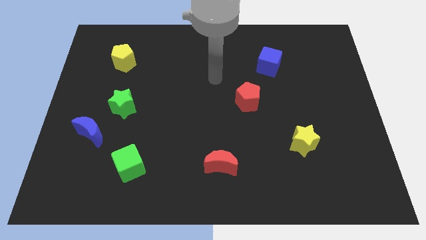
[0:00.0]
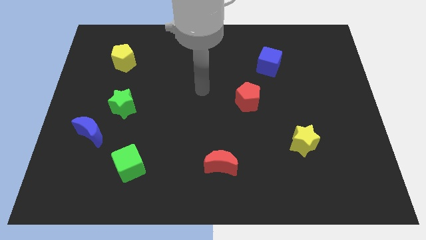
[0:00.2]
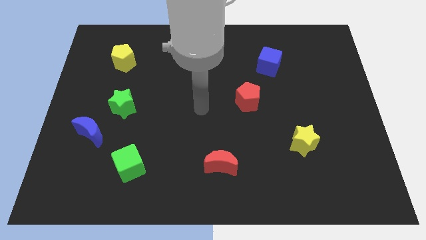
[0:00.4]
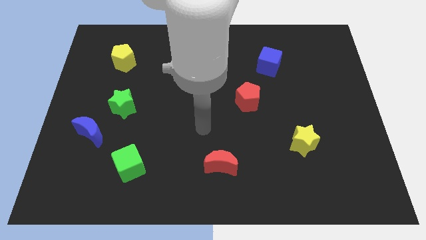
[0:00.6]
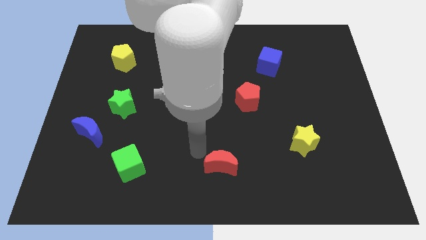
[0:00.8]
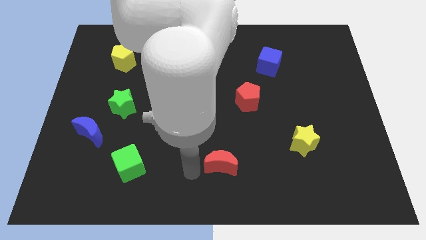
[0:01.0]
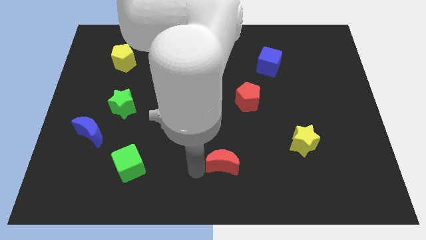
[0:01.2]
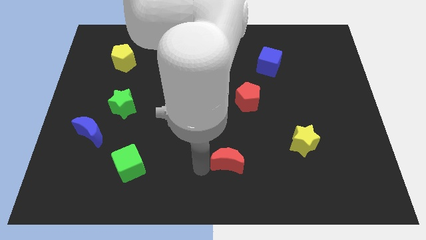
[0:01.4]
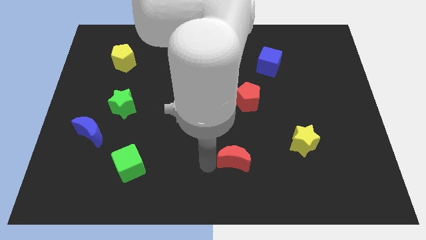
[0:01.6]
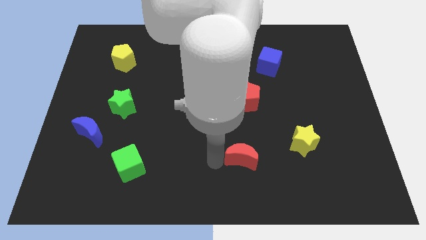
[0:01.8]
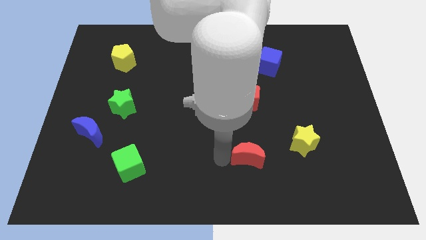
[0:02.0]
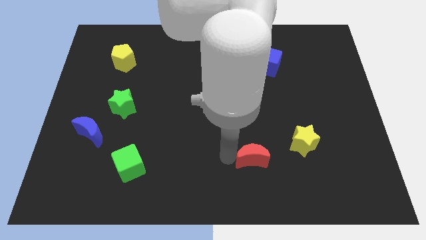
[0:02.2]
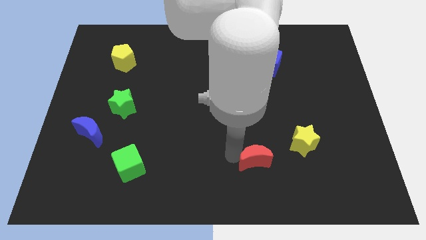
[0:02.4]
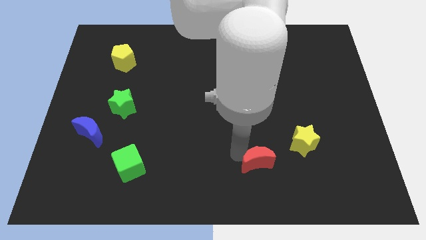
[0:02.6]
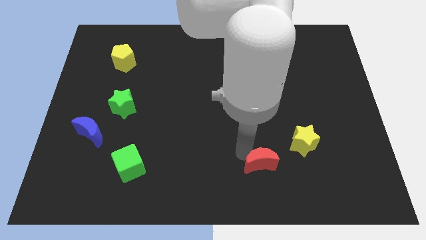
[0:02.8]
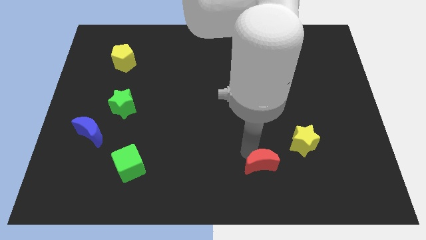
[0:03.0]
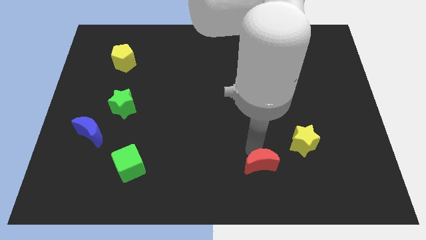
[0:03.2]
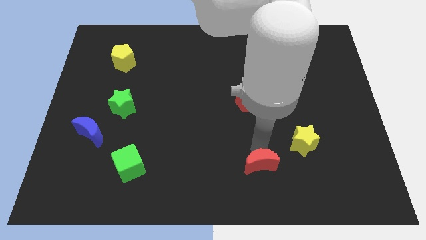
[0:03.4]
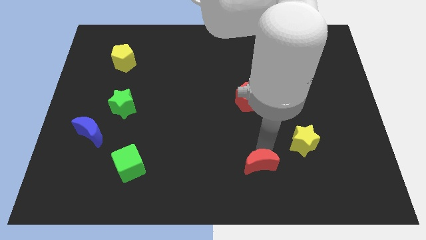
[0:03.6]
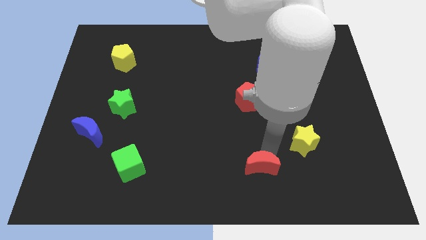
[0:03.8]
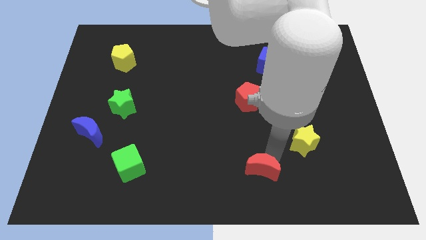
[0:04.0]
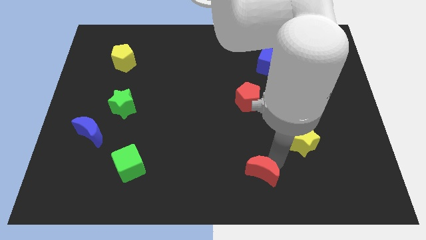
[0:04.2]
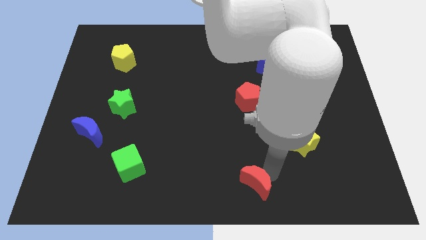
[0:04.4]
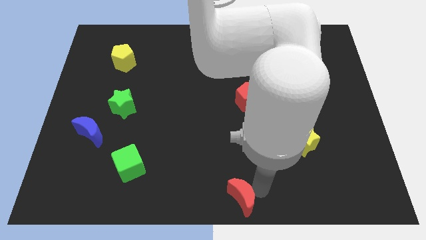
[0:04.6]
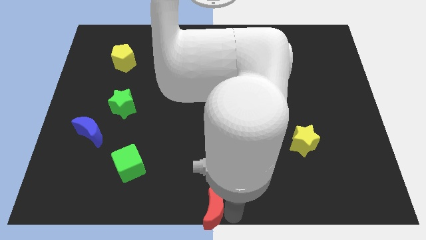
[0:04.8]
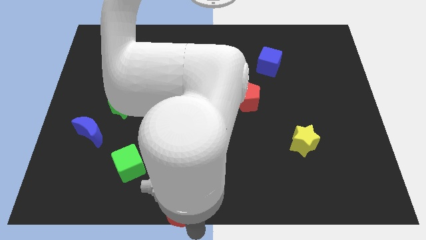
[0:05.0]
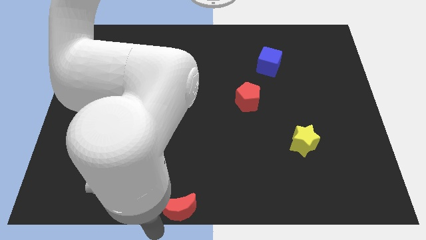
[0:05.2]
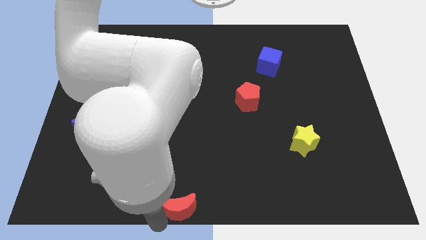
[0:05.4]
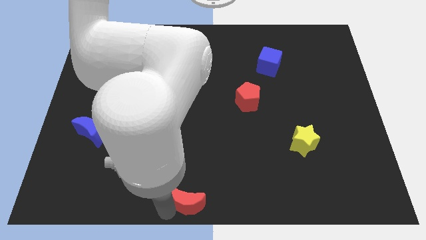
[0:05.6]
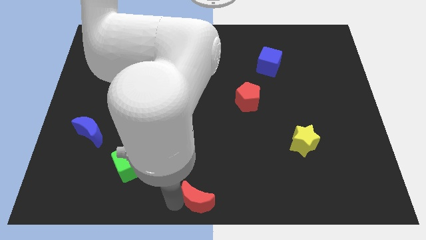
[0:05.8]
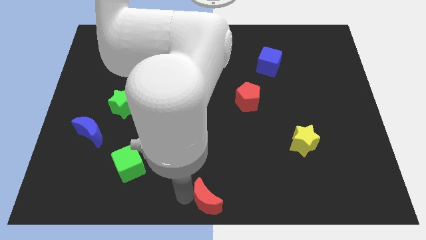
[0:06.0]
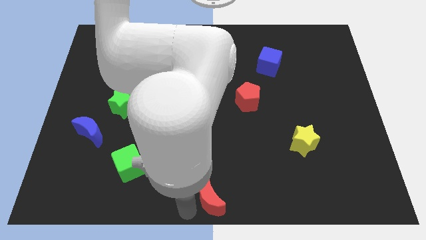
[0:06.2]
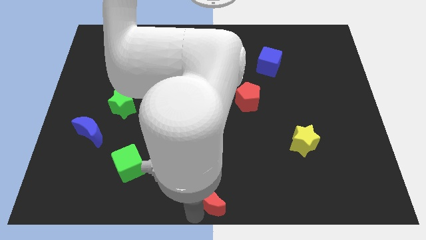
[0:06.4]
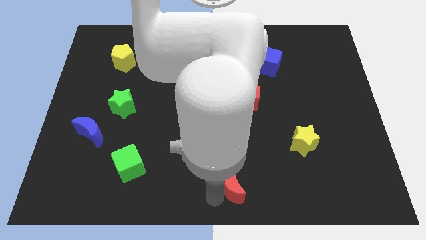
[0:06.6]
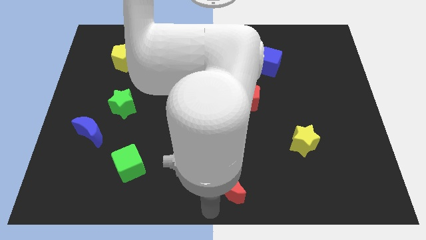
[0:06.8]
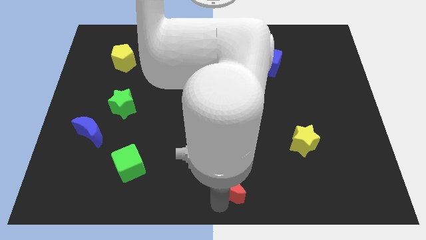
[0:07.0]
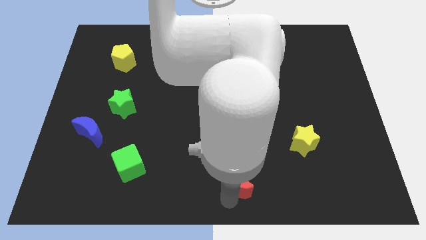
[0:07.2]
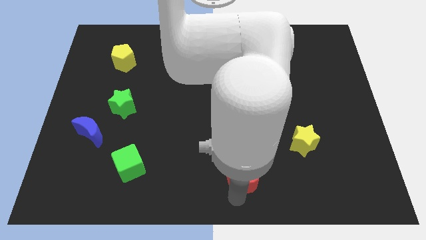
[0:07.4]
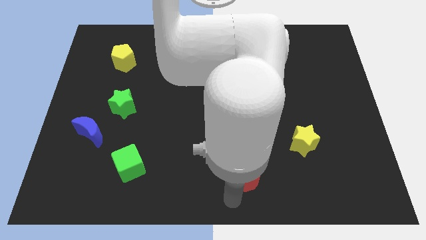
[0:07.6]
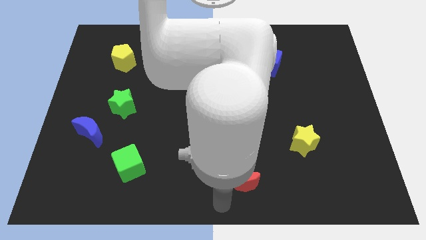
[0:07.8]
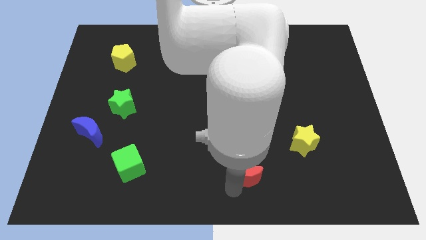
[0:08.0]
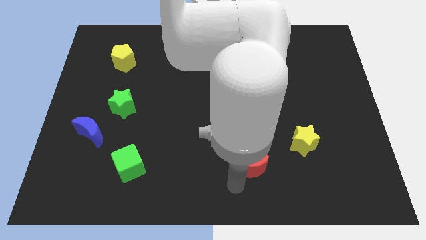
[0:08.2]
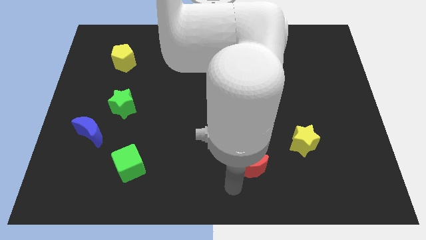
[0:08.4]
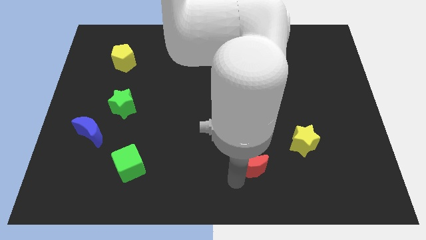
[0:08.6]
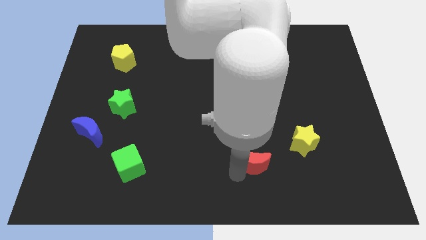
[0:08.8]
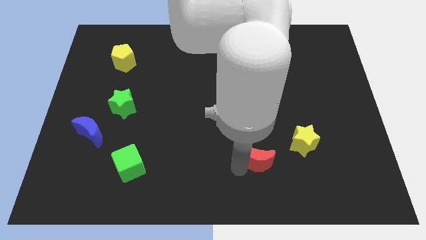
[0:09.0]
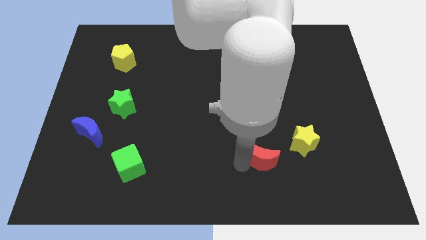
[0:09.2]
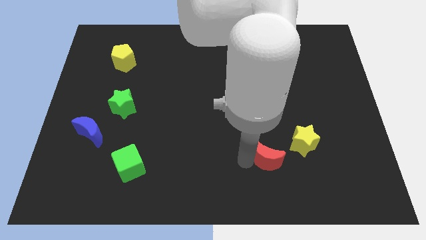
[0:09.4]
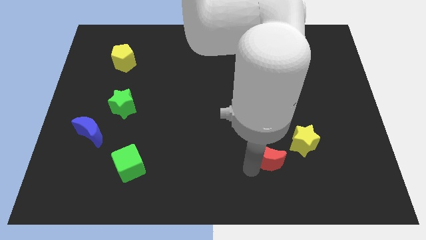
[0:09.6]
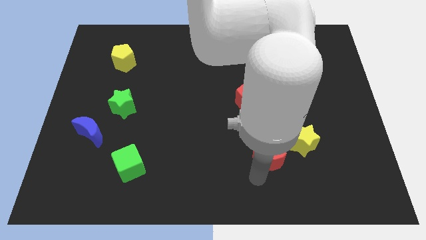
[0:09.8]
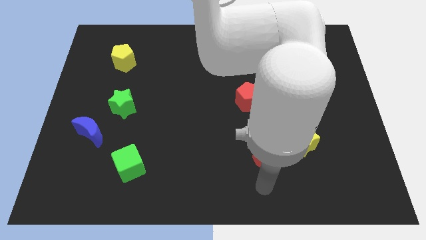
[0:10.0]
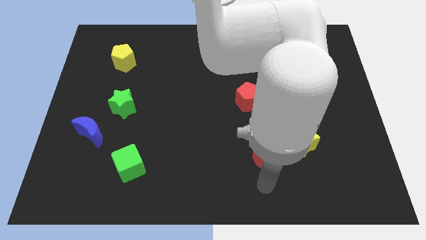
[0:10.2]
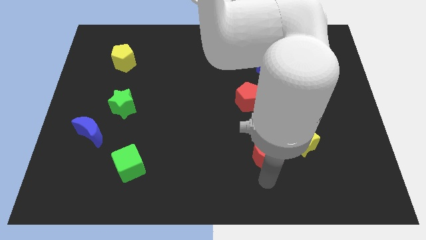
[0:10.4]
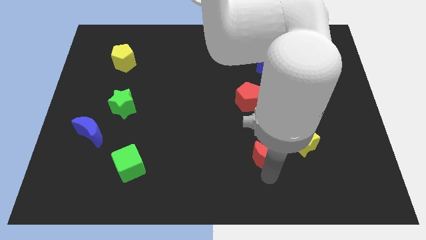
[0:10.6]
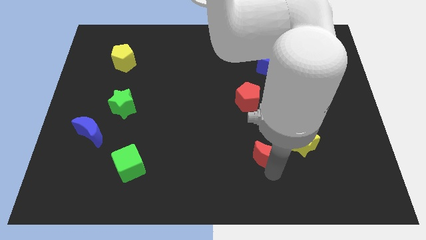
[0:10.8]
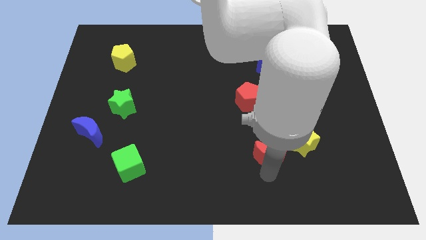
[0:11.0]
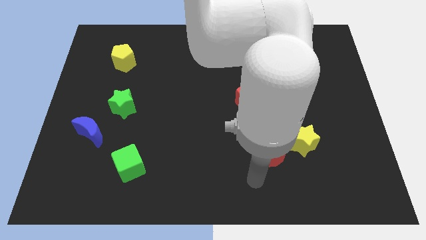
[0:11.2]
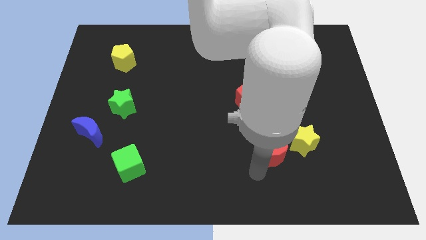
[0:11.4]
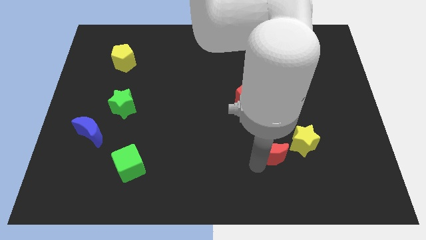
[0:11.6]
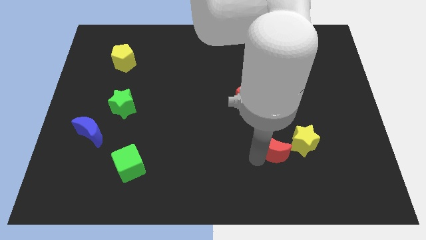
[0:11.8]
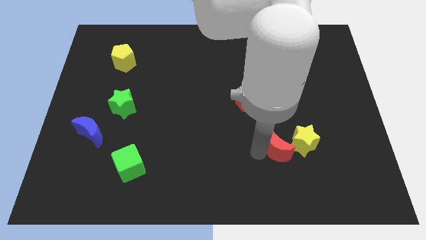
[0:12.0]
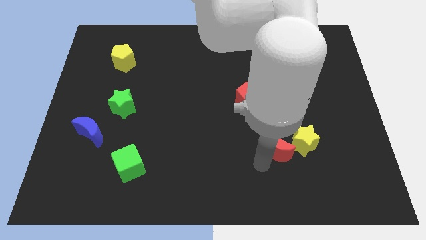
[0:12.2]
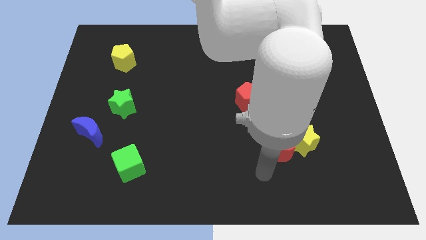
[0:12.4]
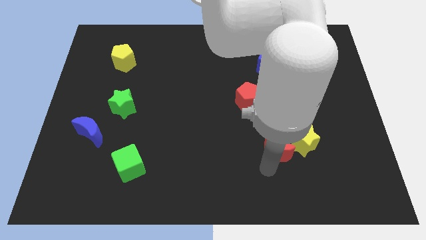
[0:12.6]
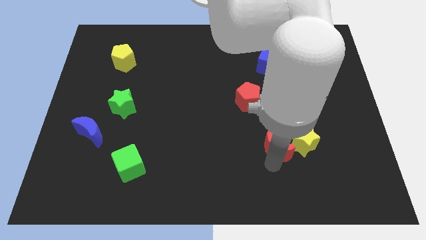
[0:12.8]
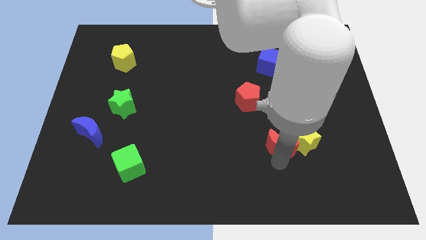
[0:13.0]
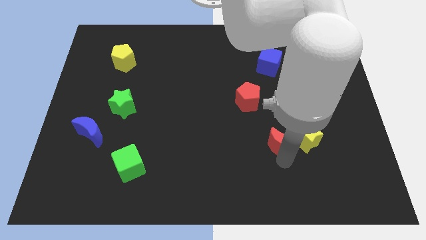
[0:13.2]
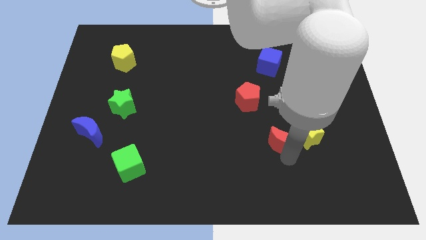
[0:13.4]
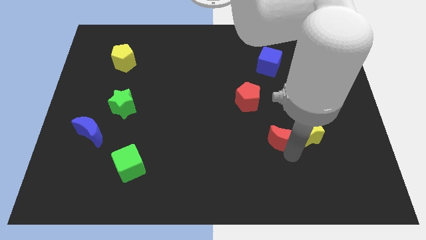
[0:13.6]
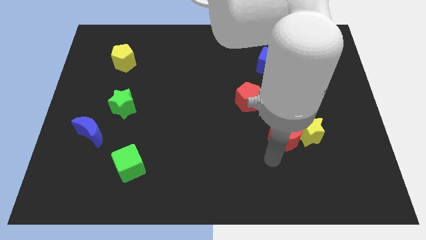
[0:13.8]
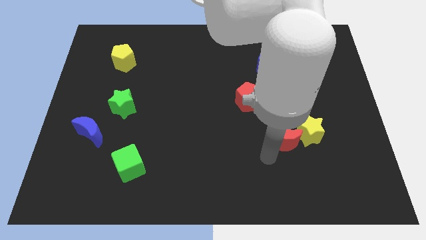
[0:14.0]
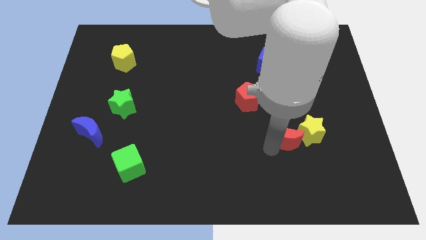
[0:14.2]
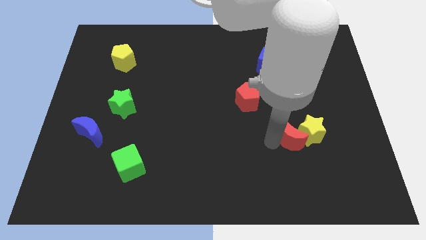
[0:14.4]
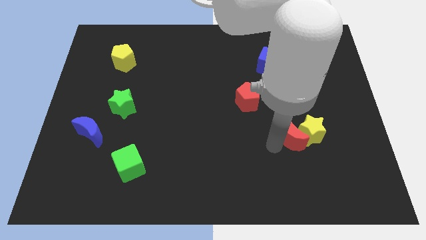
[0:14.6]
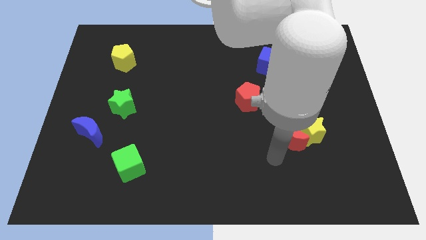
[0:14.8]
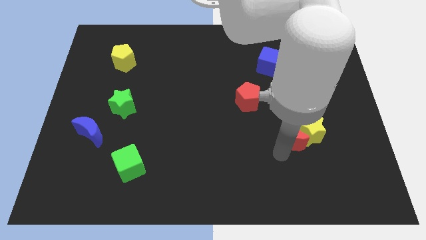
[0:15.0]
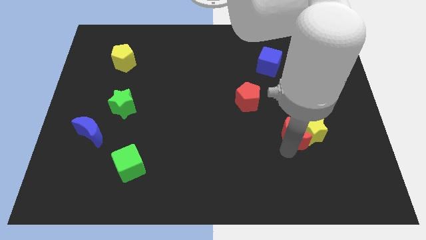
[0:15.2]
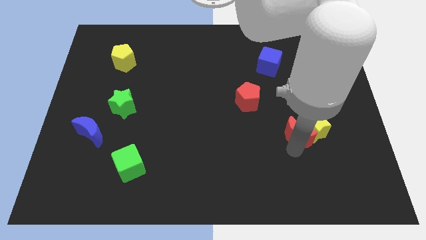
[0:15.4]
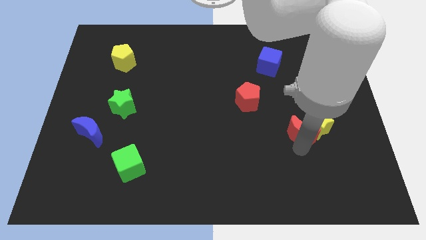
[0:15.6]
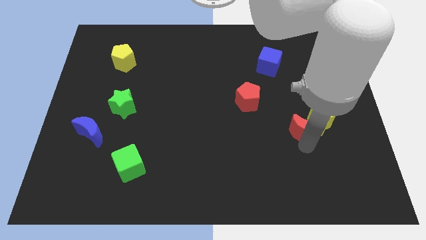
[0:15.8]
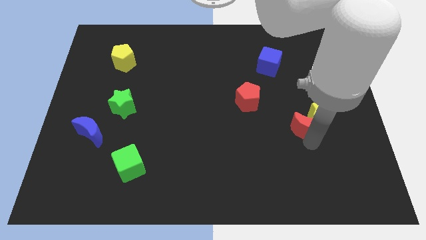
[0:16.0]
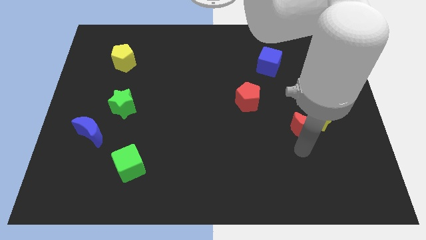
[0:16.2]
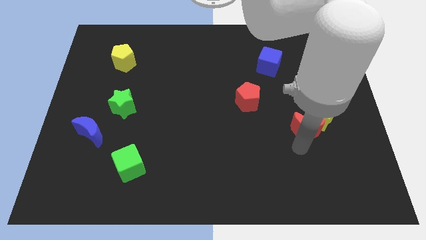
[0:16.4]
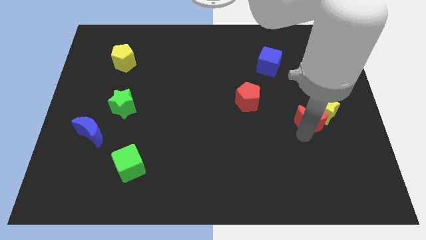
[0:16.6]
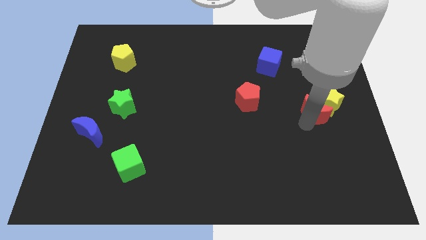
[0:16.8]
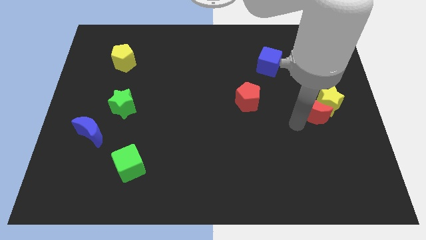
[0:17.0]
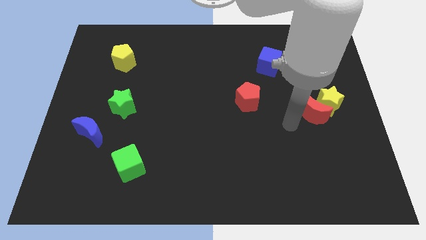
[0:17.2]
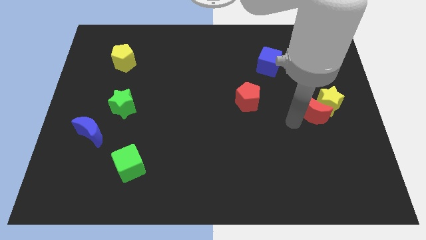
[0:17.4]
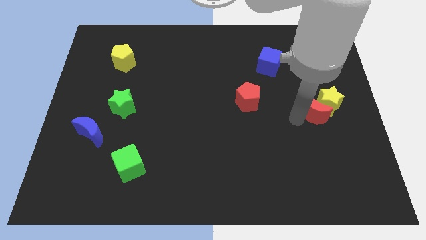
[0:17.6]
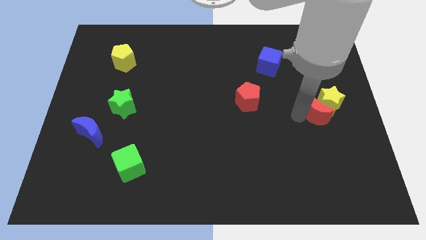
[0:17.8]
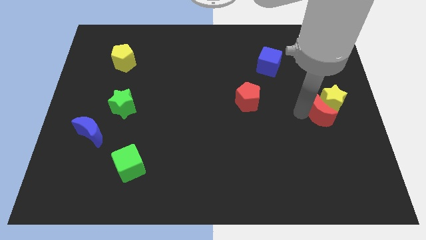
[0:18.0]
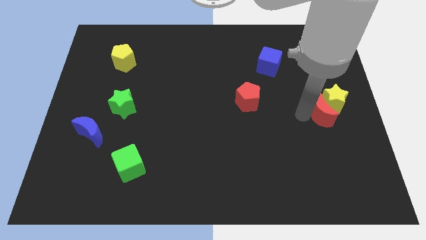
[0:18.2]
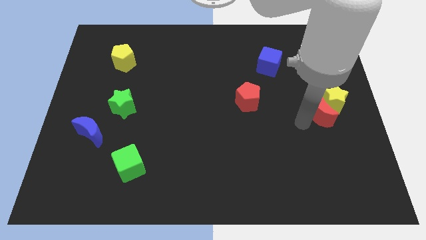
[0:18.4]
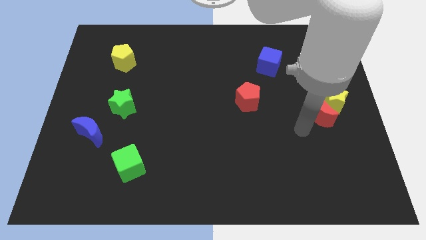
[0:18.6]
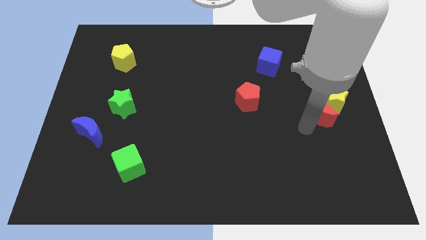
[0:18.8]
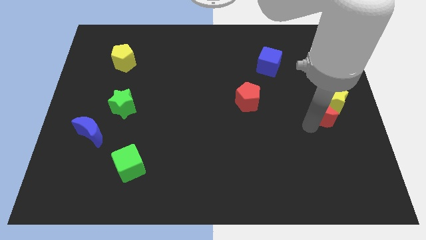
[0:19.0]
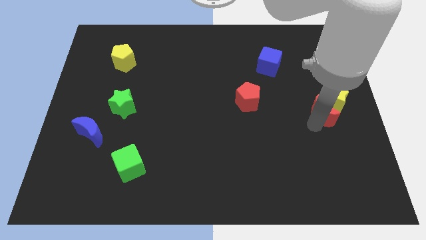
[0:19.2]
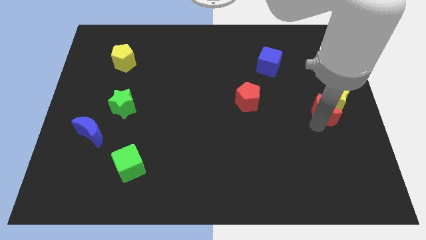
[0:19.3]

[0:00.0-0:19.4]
put the red moon to the right side
